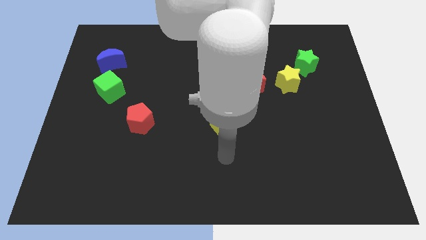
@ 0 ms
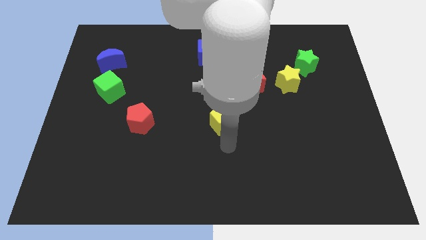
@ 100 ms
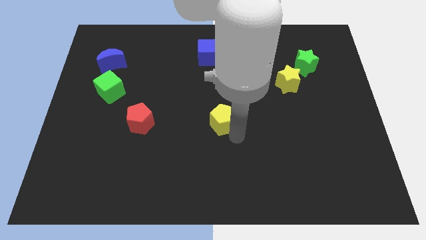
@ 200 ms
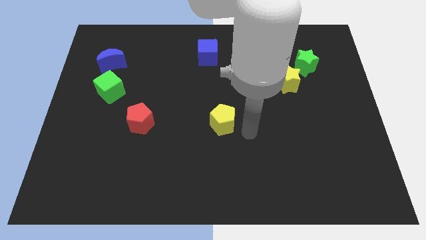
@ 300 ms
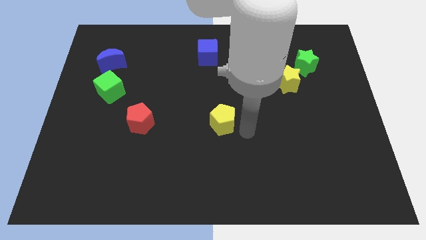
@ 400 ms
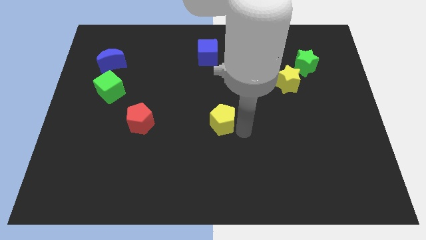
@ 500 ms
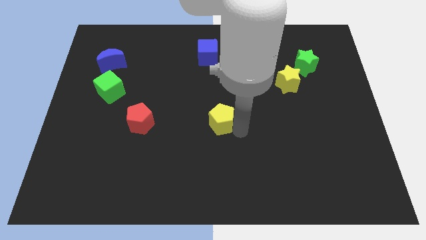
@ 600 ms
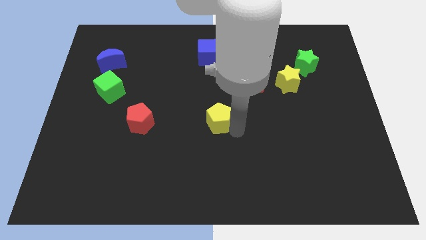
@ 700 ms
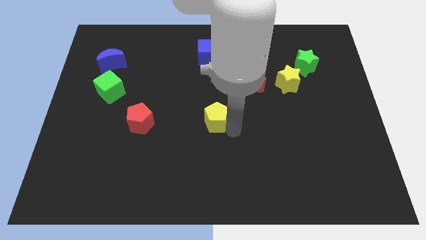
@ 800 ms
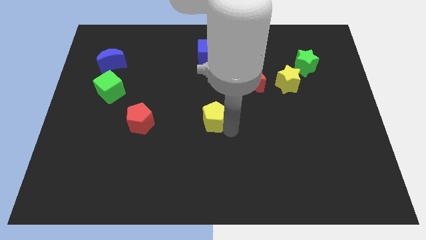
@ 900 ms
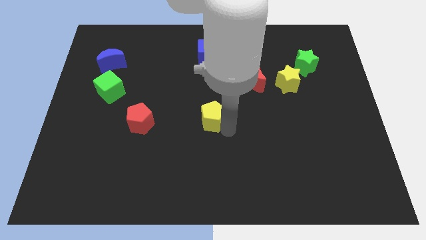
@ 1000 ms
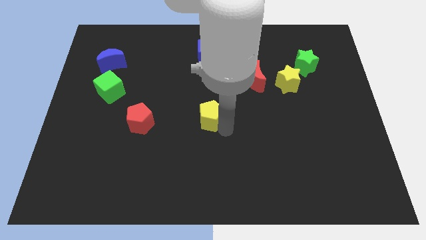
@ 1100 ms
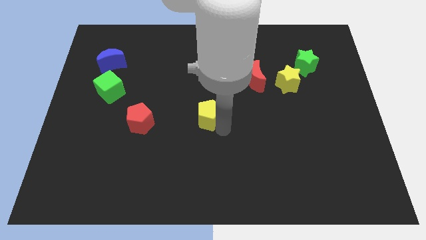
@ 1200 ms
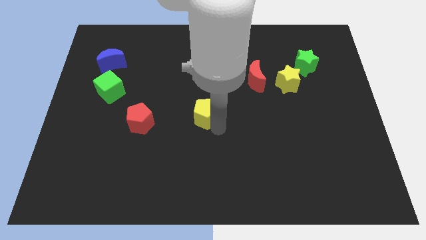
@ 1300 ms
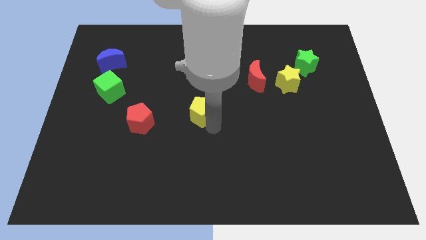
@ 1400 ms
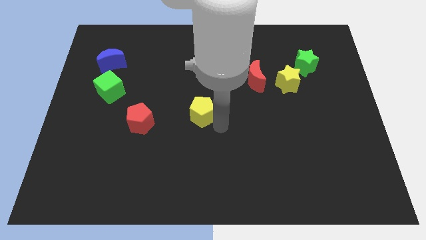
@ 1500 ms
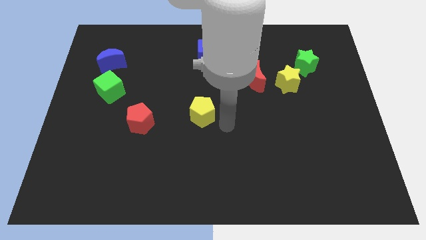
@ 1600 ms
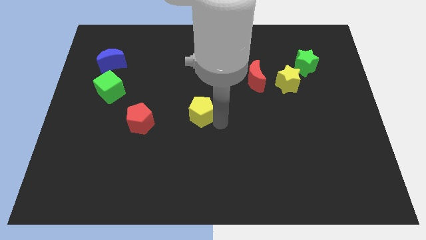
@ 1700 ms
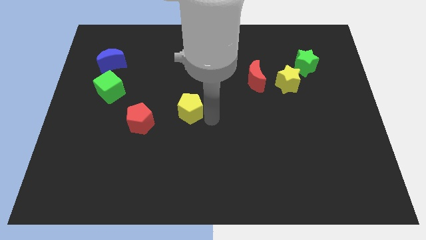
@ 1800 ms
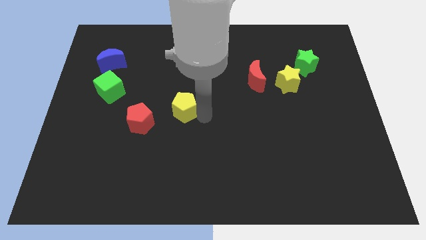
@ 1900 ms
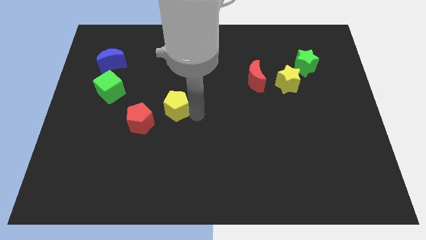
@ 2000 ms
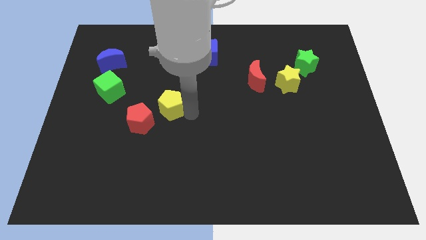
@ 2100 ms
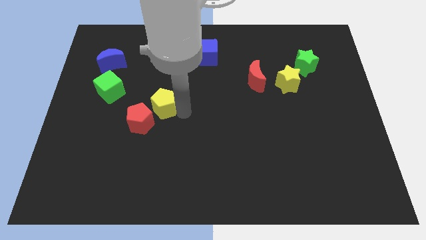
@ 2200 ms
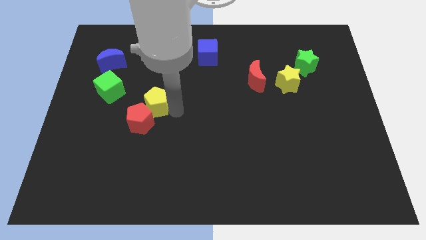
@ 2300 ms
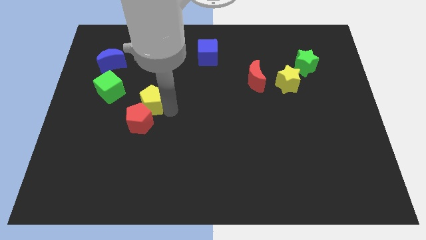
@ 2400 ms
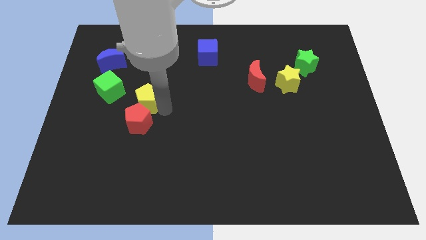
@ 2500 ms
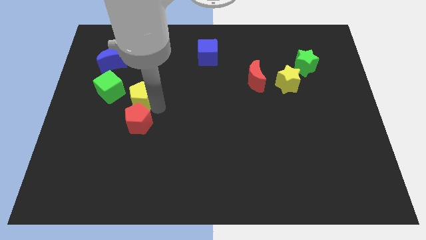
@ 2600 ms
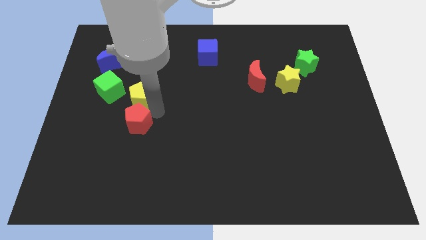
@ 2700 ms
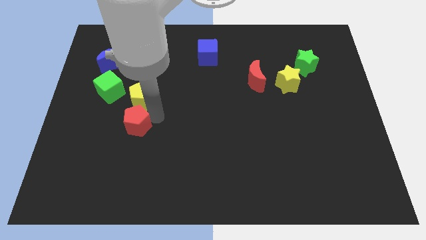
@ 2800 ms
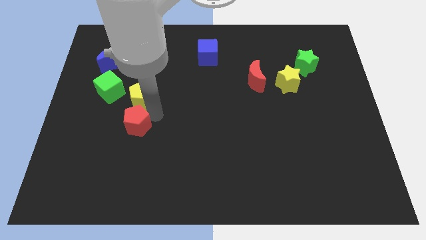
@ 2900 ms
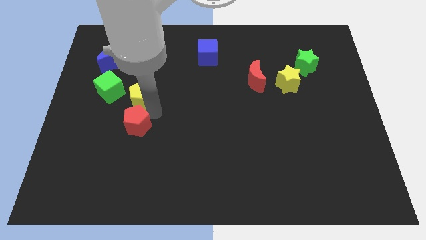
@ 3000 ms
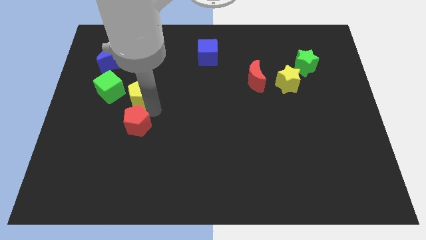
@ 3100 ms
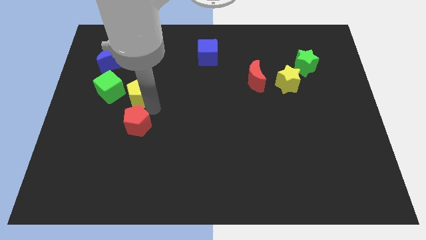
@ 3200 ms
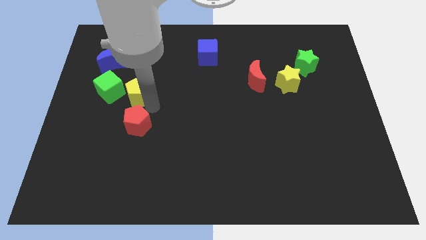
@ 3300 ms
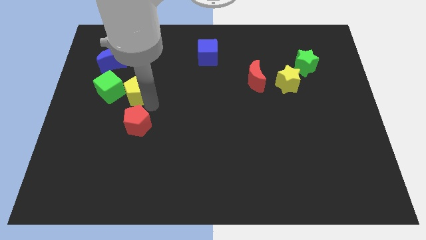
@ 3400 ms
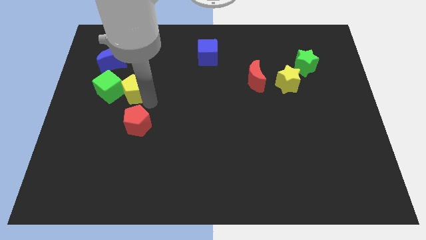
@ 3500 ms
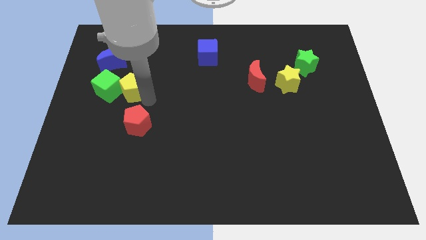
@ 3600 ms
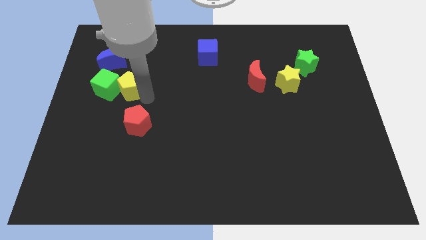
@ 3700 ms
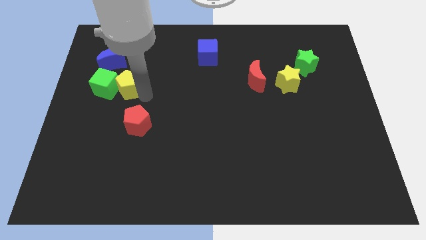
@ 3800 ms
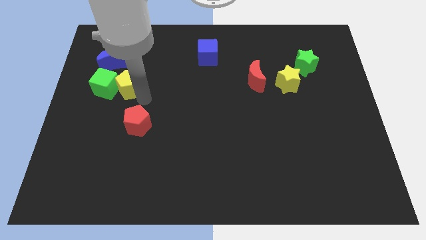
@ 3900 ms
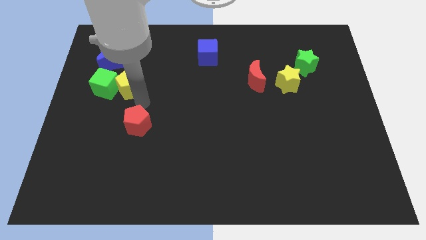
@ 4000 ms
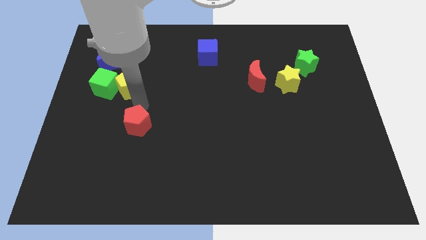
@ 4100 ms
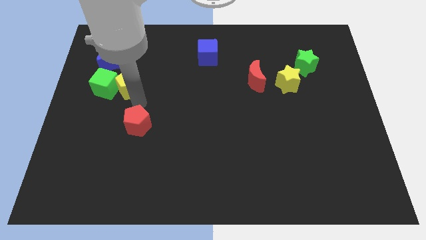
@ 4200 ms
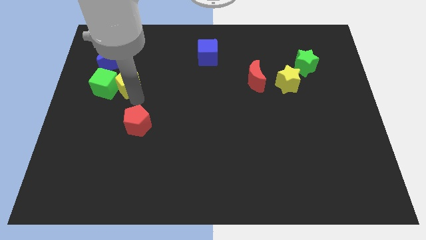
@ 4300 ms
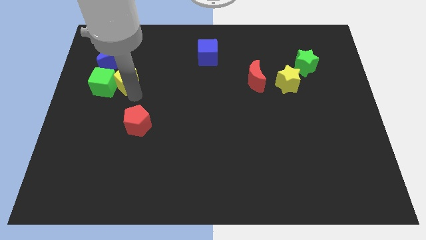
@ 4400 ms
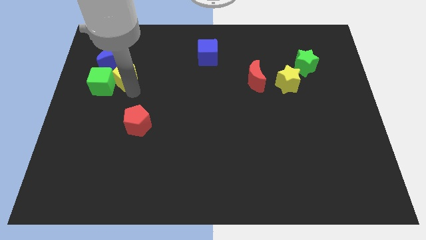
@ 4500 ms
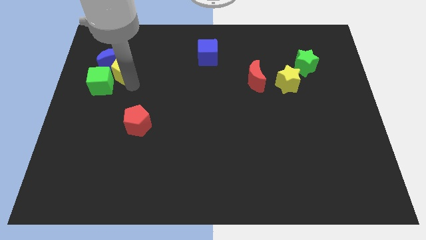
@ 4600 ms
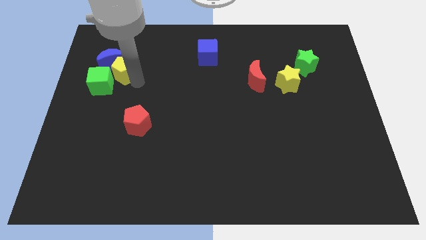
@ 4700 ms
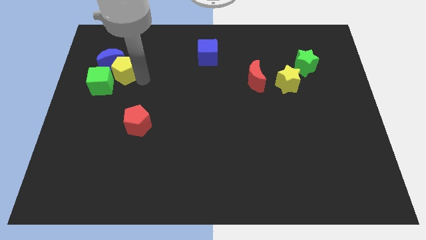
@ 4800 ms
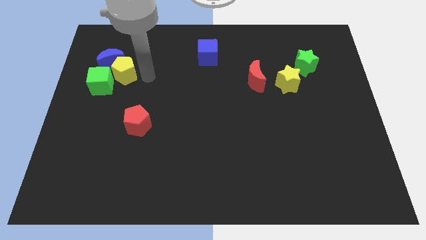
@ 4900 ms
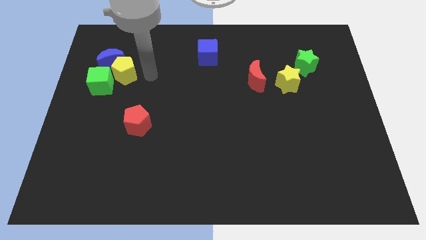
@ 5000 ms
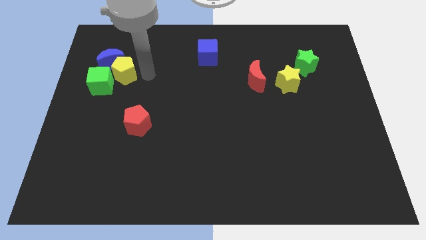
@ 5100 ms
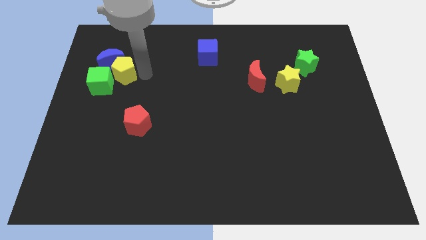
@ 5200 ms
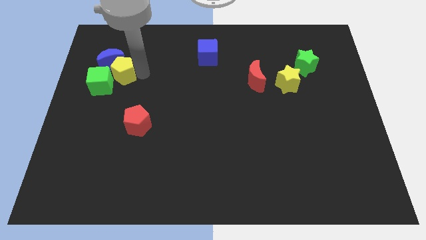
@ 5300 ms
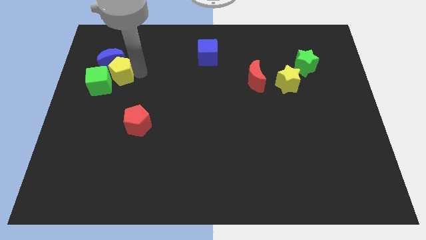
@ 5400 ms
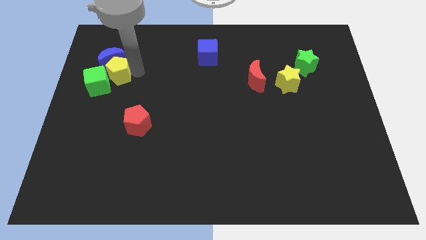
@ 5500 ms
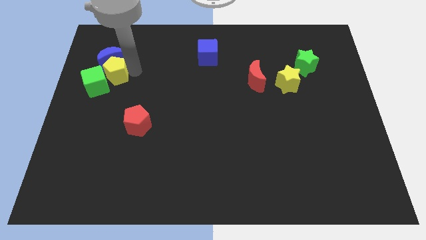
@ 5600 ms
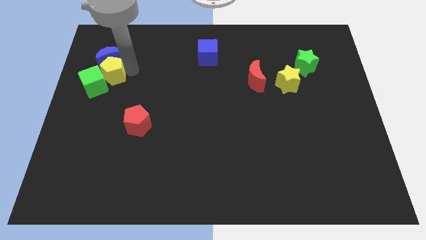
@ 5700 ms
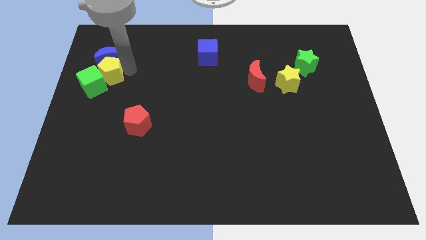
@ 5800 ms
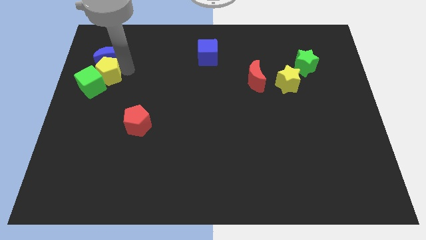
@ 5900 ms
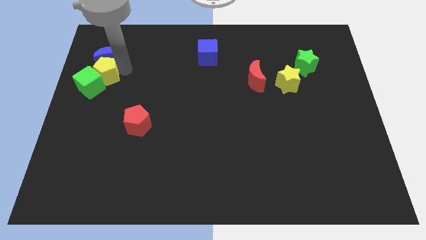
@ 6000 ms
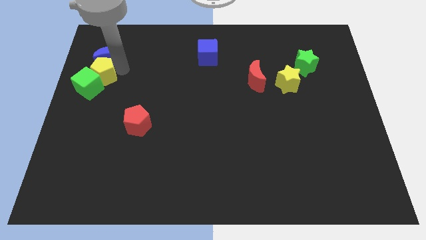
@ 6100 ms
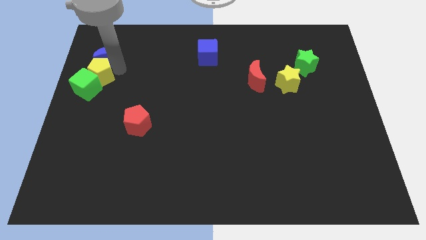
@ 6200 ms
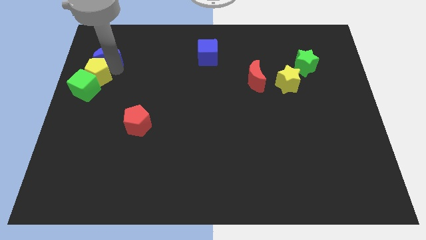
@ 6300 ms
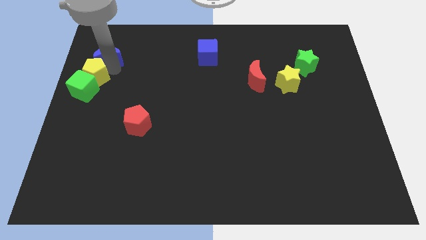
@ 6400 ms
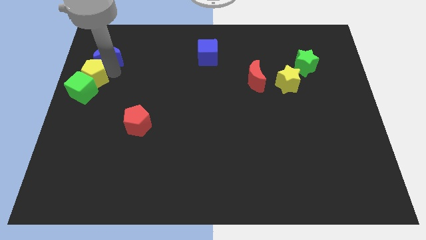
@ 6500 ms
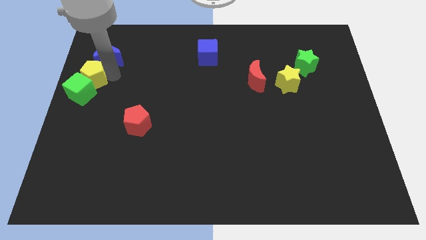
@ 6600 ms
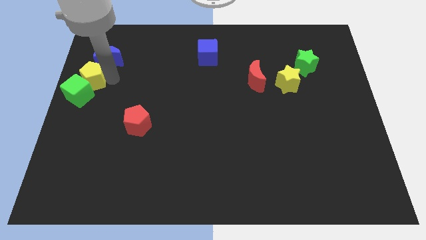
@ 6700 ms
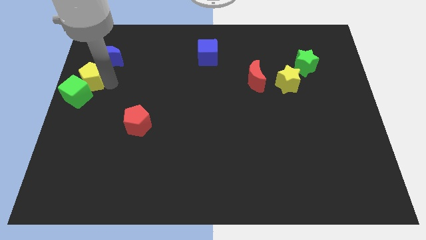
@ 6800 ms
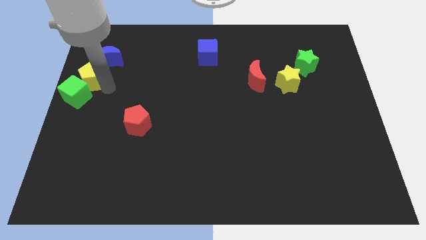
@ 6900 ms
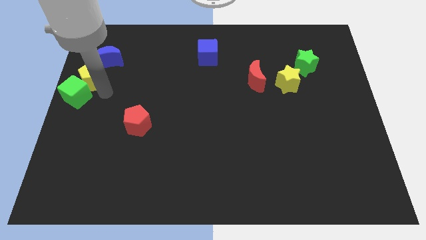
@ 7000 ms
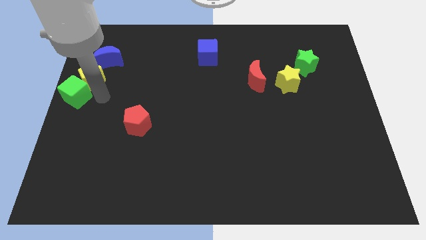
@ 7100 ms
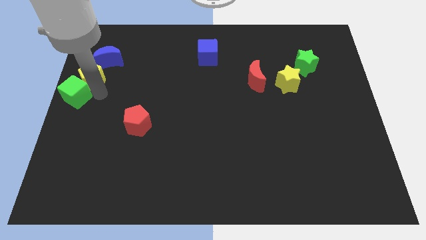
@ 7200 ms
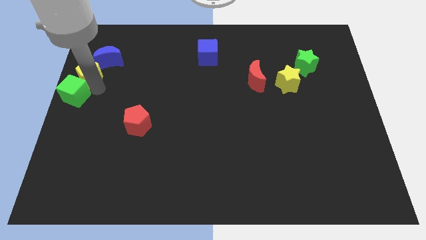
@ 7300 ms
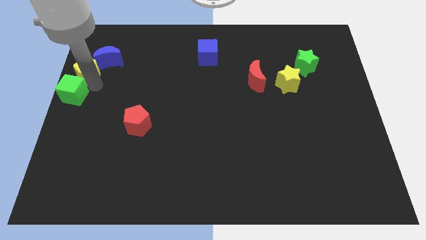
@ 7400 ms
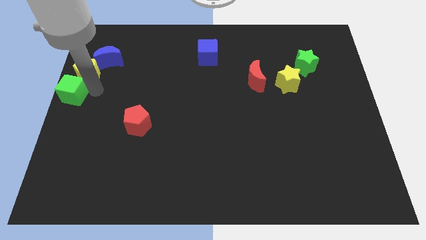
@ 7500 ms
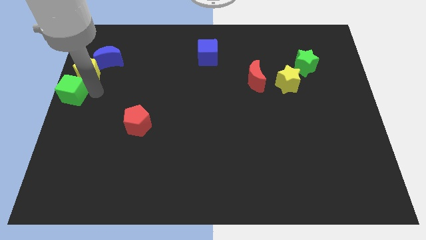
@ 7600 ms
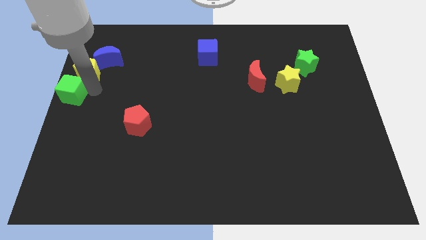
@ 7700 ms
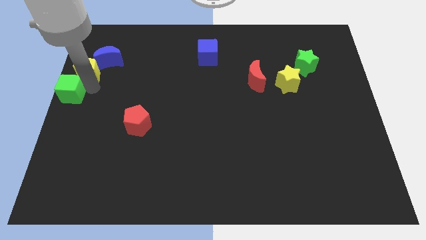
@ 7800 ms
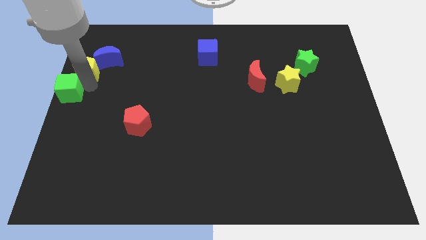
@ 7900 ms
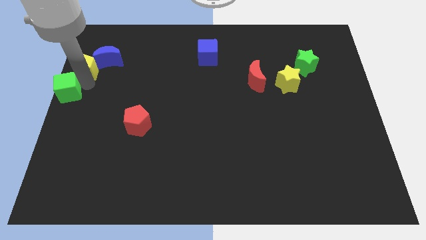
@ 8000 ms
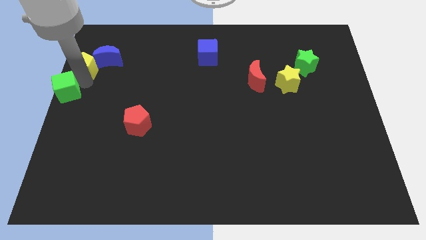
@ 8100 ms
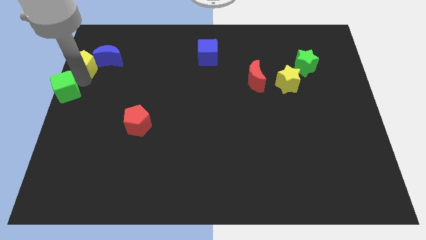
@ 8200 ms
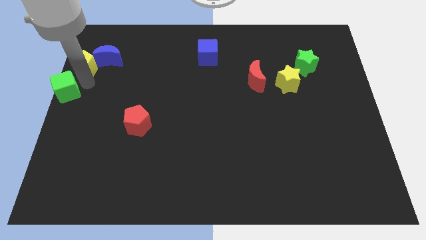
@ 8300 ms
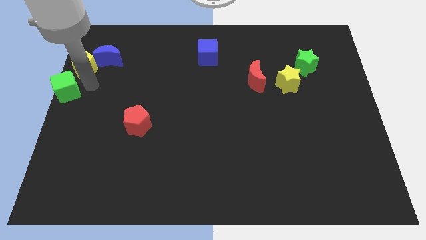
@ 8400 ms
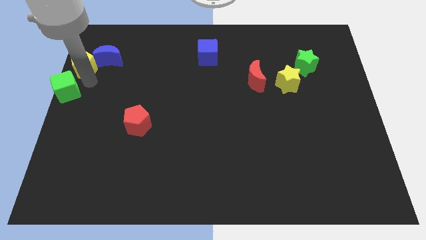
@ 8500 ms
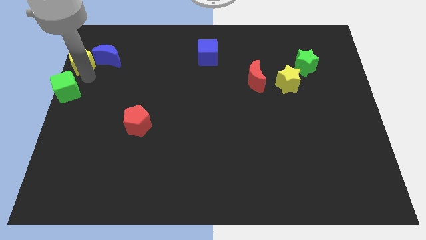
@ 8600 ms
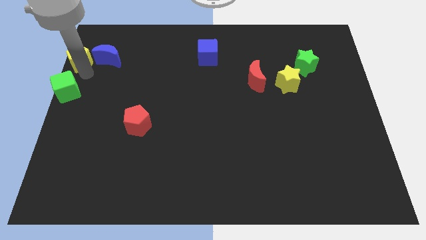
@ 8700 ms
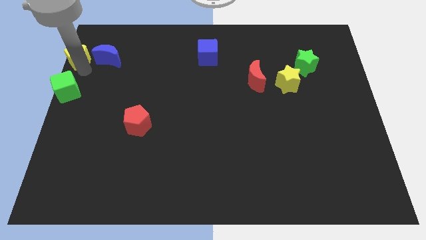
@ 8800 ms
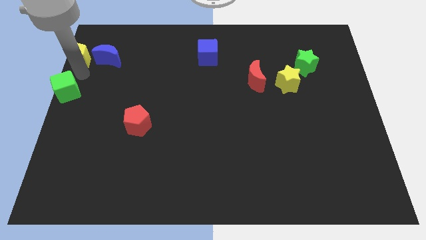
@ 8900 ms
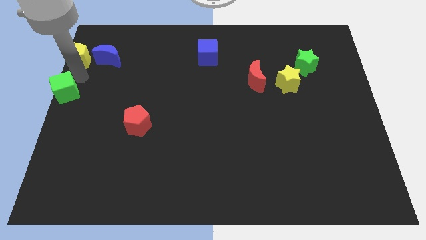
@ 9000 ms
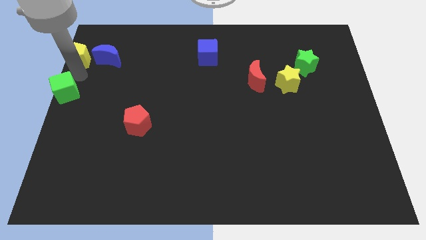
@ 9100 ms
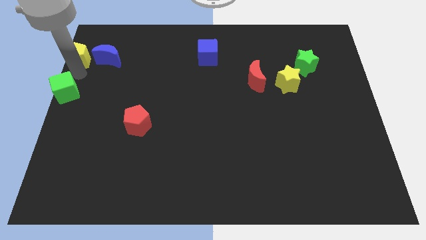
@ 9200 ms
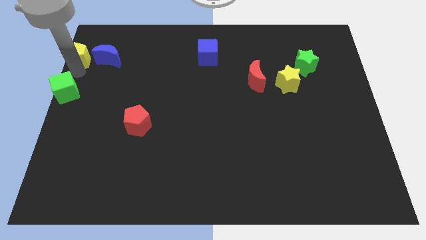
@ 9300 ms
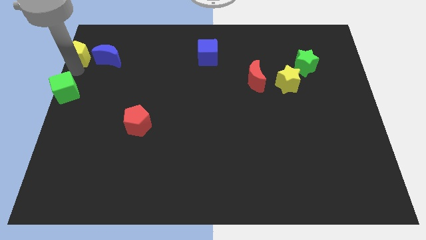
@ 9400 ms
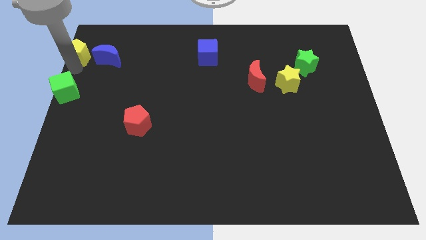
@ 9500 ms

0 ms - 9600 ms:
move the yellow pentagon to the upper left corner
